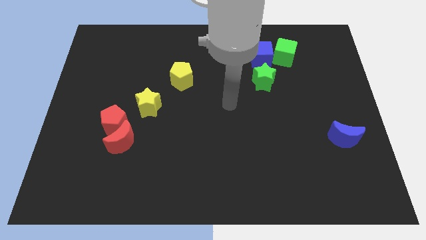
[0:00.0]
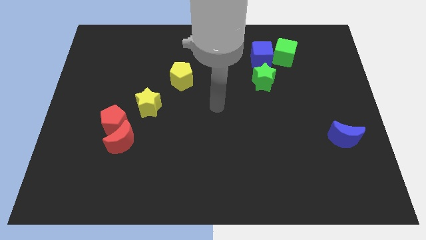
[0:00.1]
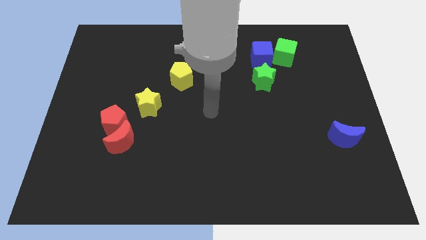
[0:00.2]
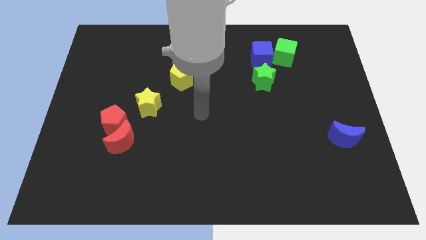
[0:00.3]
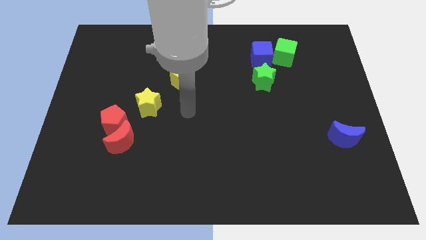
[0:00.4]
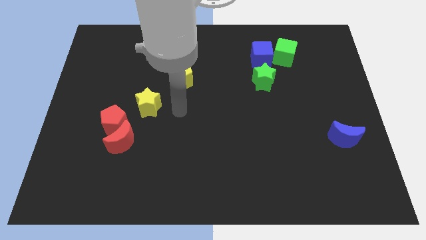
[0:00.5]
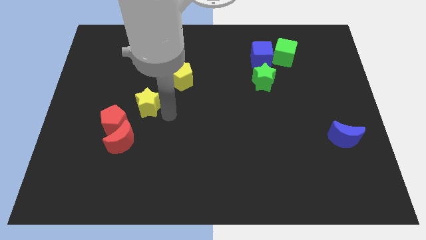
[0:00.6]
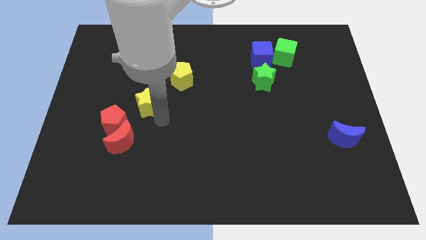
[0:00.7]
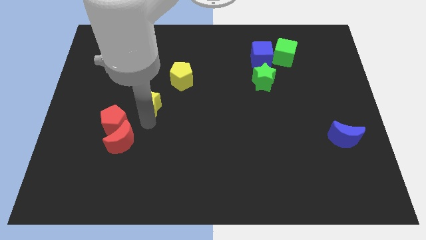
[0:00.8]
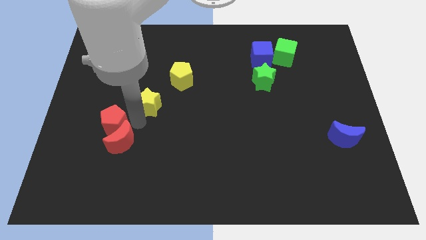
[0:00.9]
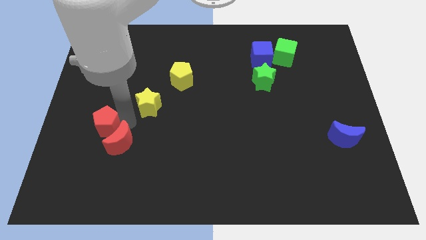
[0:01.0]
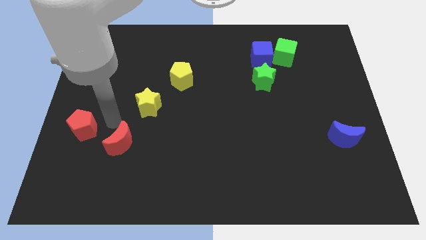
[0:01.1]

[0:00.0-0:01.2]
pull the red moon apart from the red pentagon

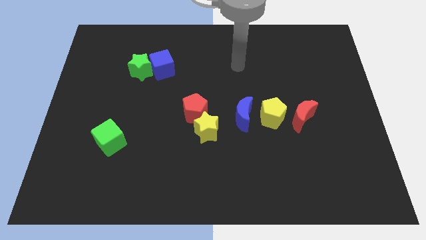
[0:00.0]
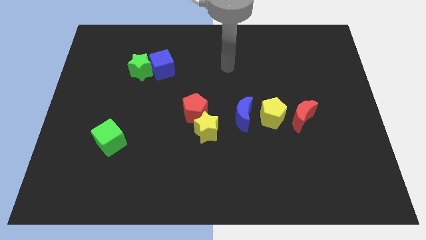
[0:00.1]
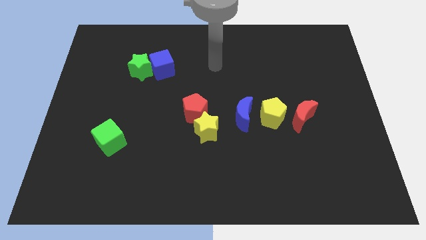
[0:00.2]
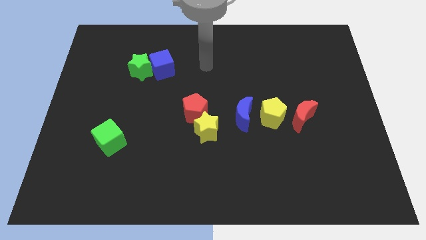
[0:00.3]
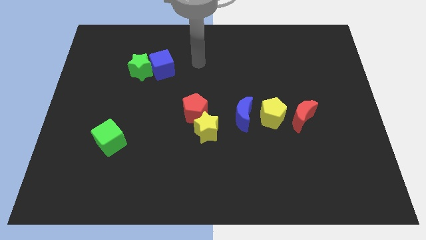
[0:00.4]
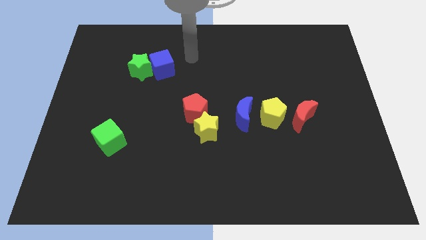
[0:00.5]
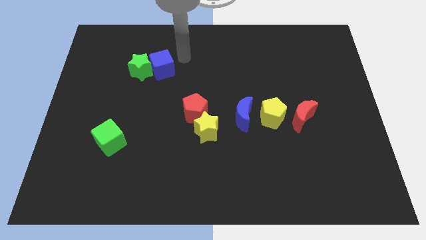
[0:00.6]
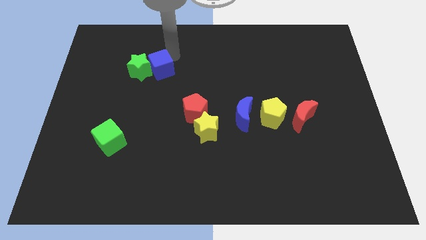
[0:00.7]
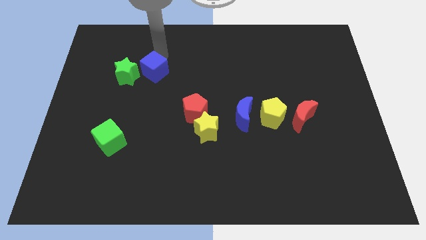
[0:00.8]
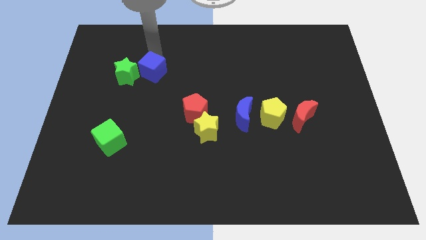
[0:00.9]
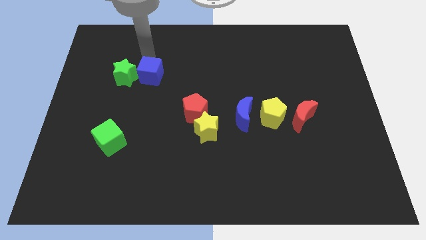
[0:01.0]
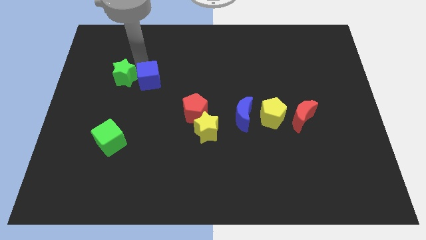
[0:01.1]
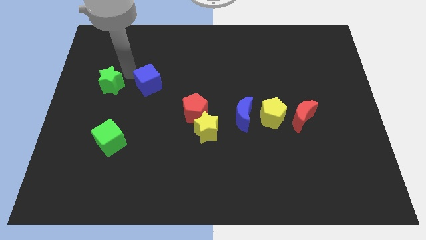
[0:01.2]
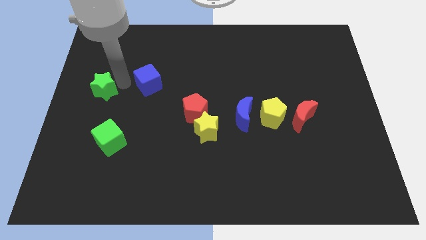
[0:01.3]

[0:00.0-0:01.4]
separate the blue cube from the green star

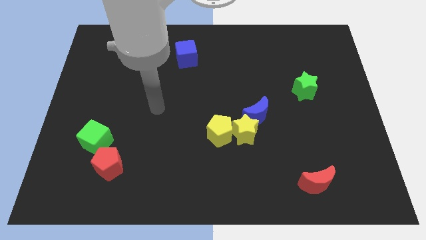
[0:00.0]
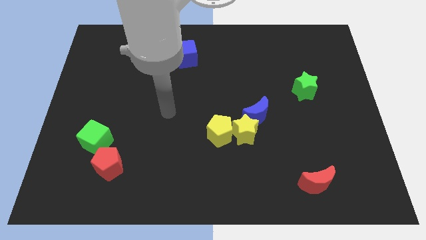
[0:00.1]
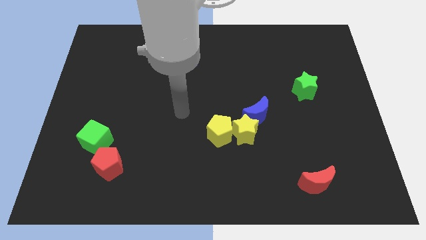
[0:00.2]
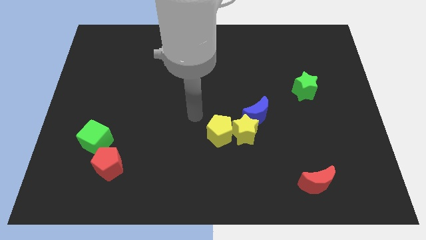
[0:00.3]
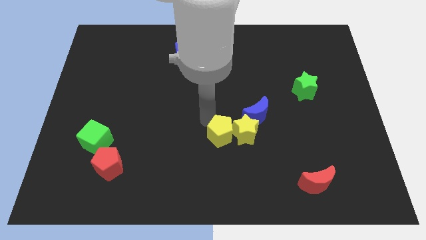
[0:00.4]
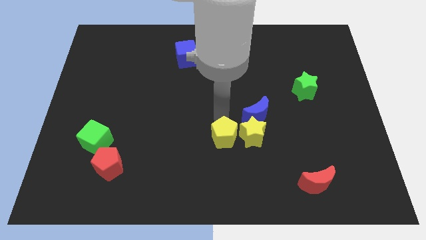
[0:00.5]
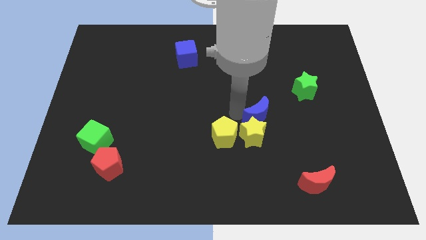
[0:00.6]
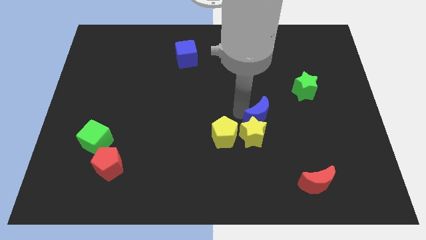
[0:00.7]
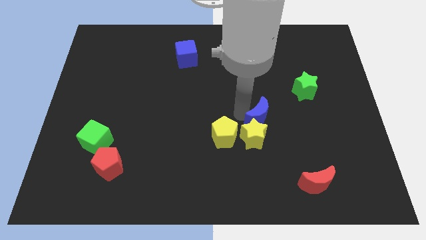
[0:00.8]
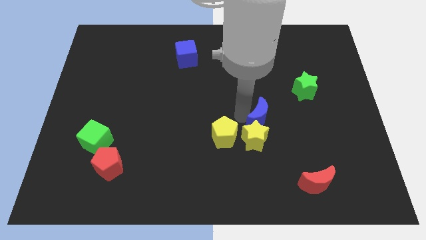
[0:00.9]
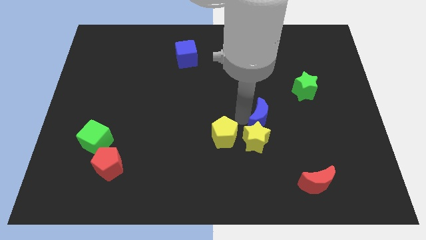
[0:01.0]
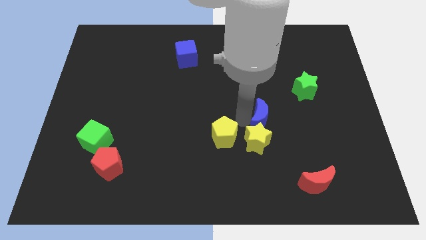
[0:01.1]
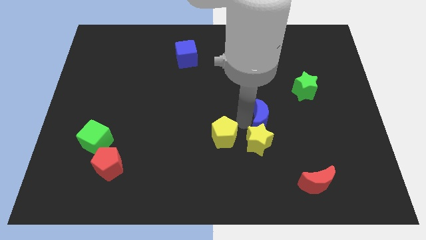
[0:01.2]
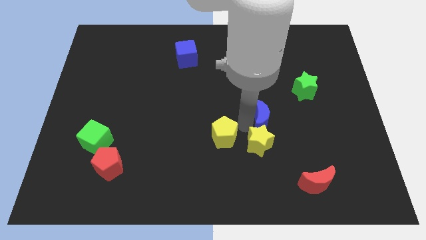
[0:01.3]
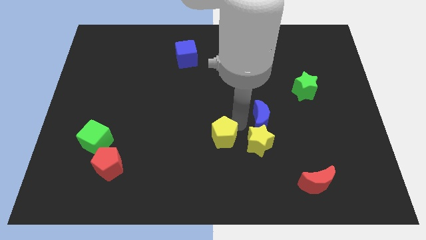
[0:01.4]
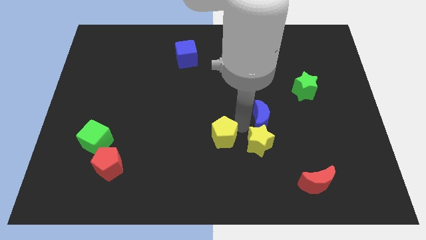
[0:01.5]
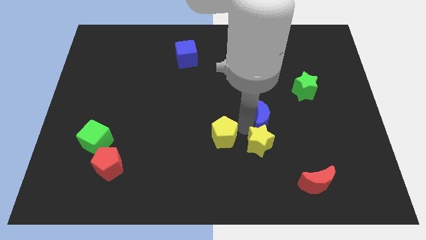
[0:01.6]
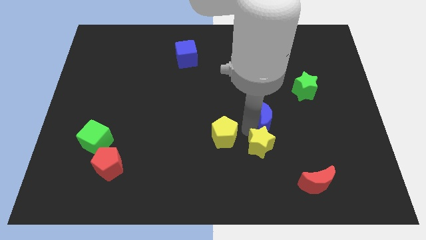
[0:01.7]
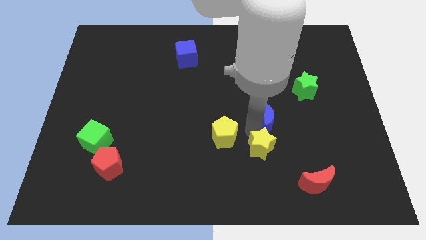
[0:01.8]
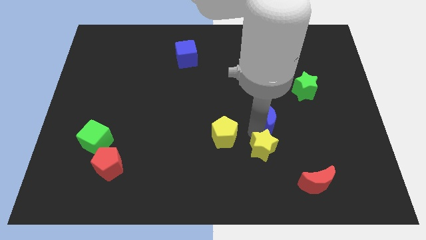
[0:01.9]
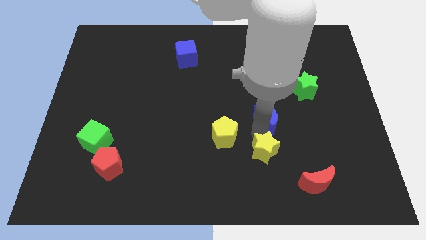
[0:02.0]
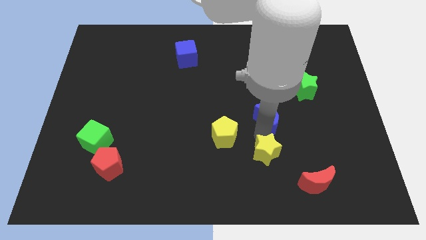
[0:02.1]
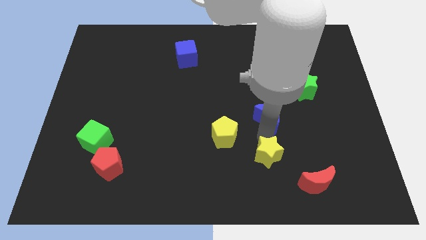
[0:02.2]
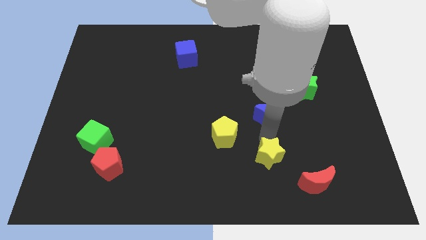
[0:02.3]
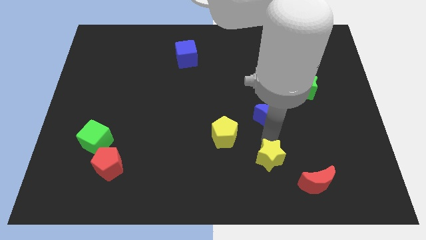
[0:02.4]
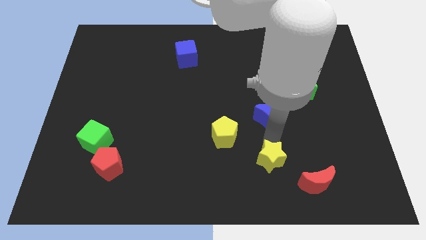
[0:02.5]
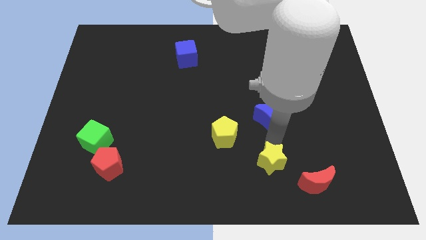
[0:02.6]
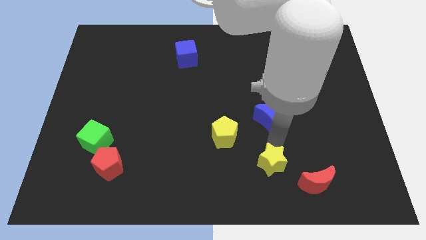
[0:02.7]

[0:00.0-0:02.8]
move the yellow star away from the blue moon and yellow pentagon

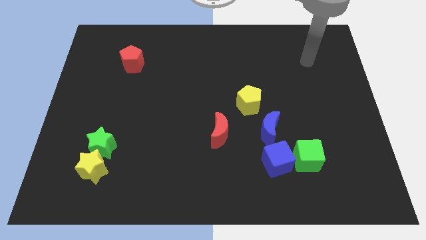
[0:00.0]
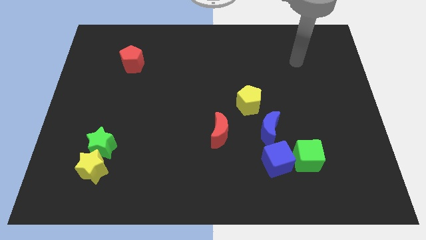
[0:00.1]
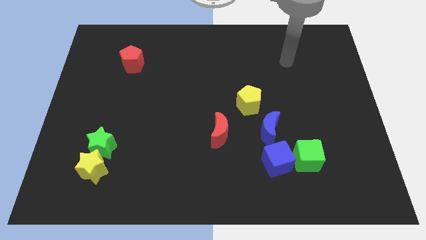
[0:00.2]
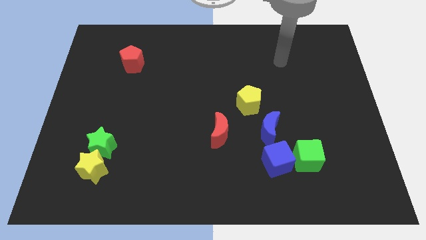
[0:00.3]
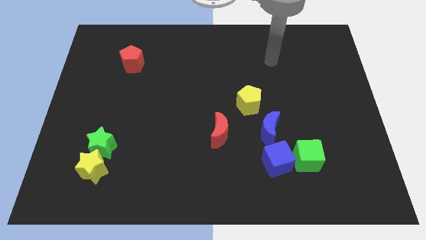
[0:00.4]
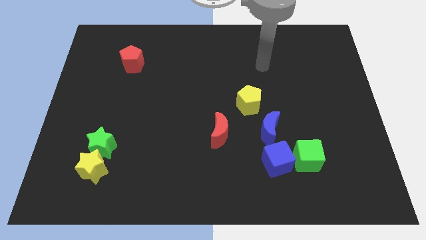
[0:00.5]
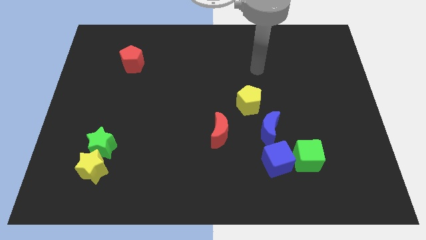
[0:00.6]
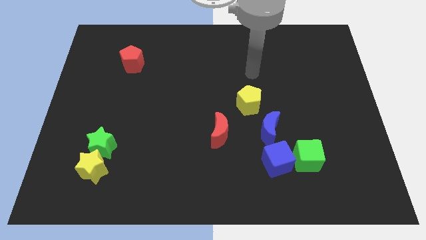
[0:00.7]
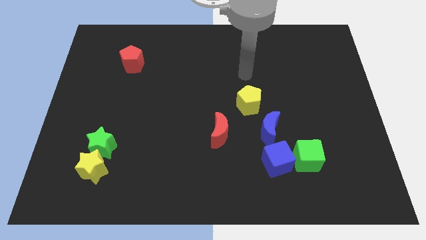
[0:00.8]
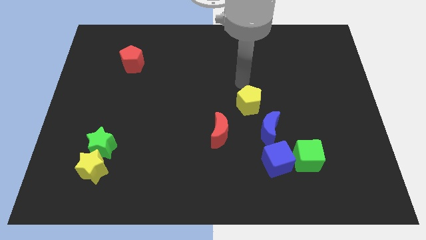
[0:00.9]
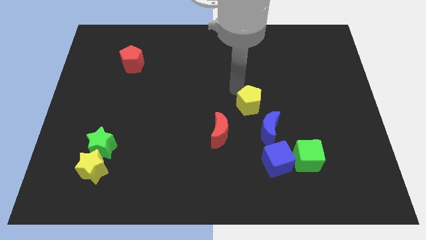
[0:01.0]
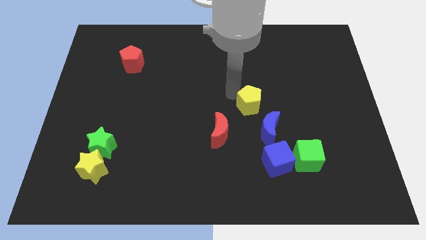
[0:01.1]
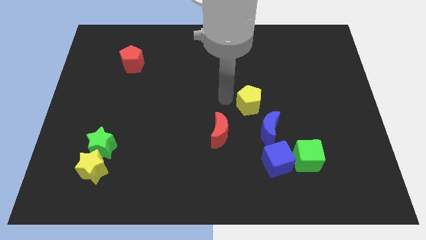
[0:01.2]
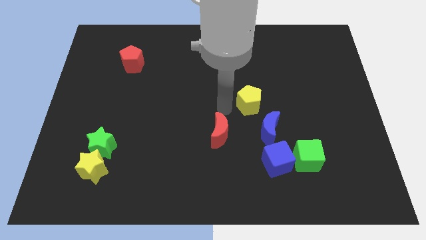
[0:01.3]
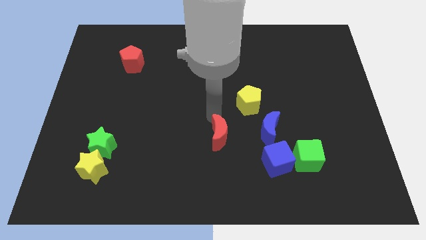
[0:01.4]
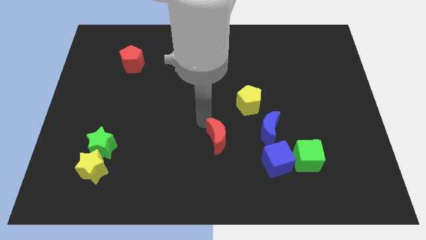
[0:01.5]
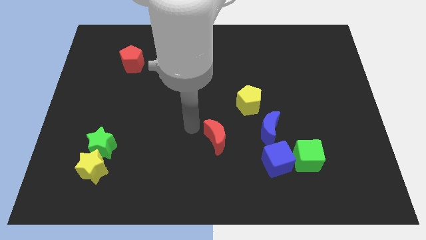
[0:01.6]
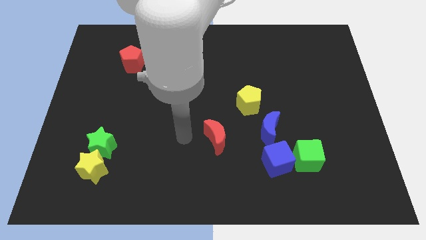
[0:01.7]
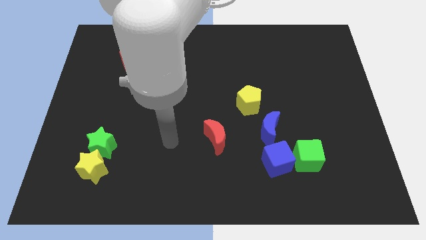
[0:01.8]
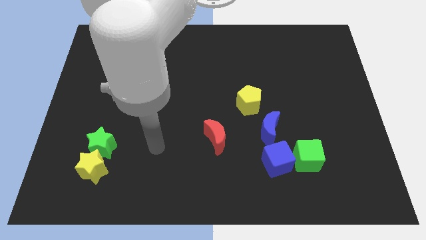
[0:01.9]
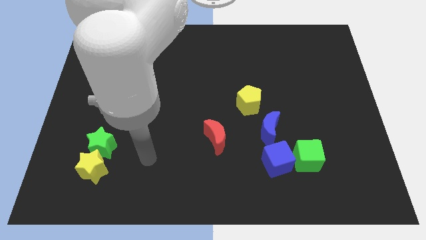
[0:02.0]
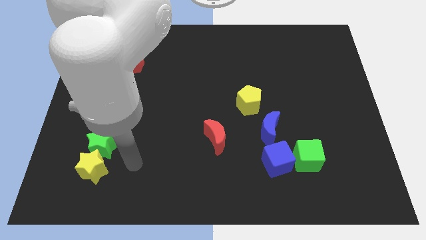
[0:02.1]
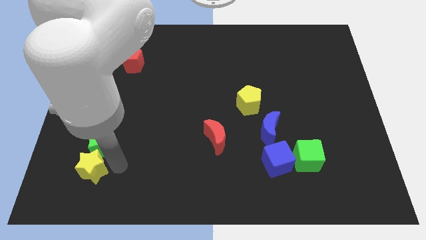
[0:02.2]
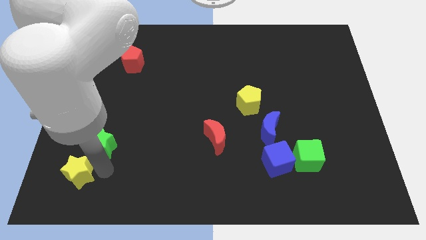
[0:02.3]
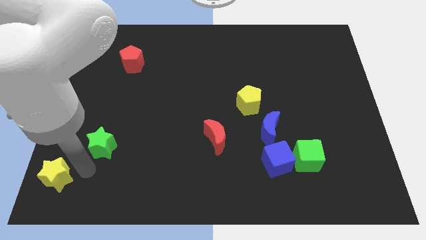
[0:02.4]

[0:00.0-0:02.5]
separate the green star from the yellow star

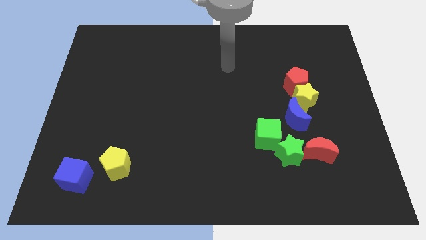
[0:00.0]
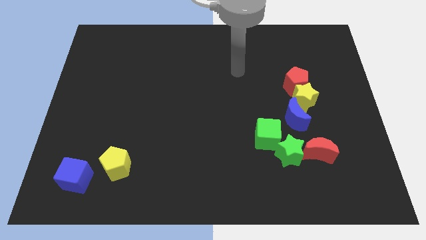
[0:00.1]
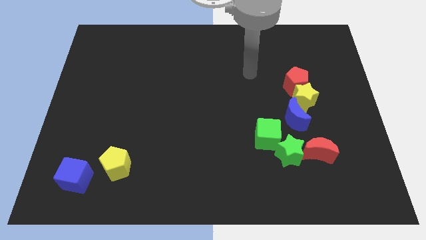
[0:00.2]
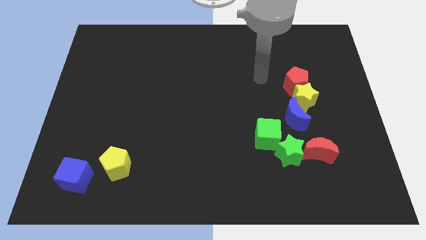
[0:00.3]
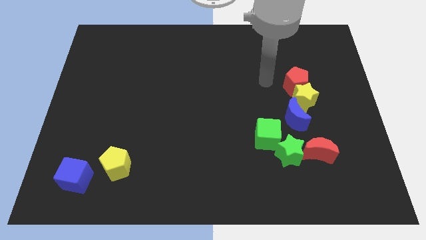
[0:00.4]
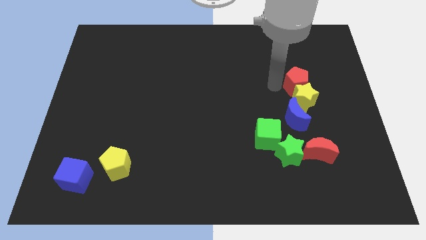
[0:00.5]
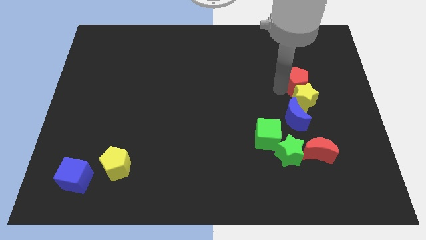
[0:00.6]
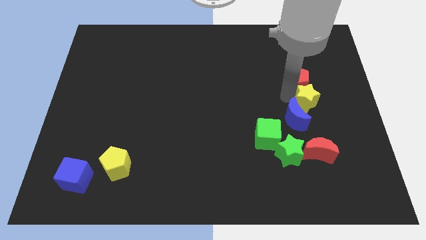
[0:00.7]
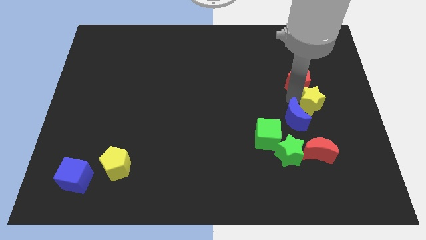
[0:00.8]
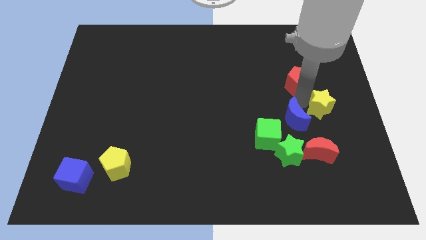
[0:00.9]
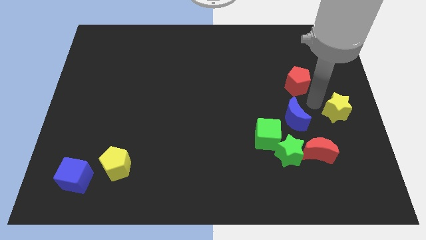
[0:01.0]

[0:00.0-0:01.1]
move the red pentagon away from the yellow star

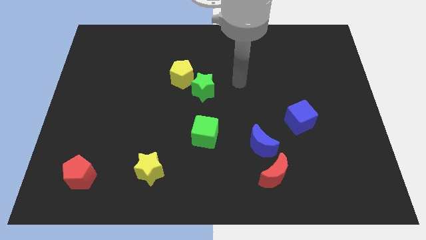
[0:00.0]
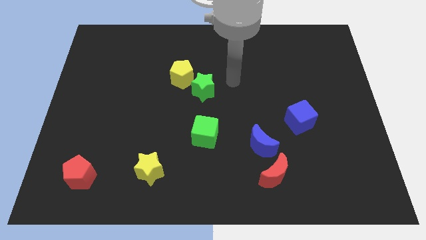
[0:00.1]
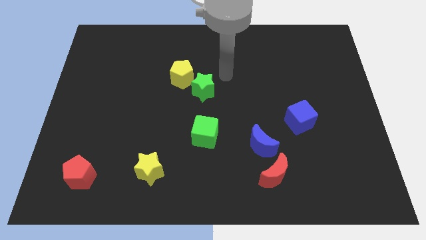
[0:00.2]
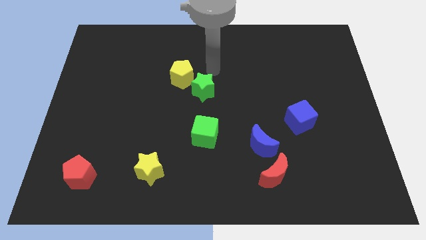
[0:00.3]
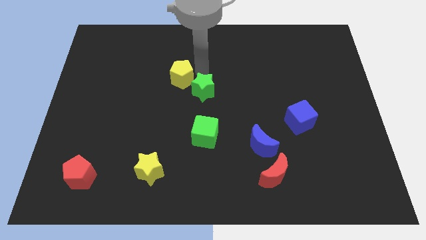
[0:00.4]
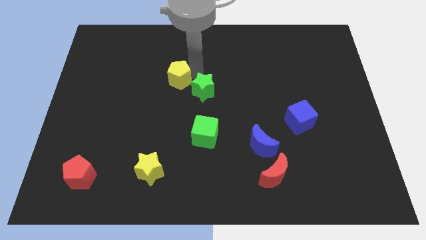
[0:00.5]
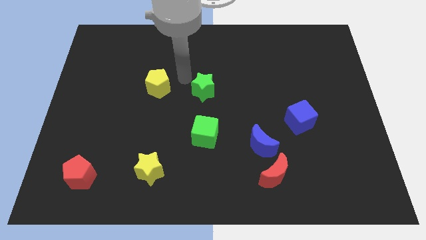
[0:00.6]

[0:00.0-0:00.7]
separate the green star from the yellow pentagon
